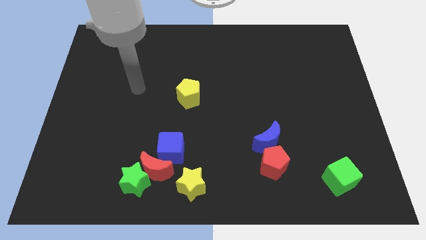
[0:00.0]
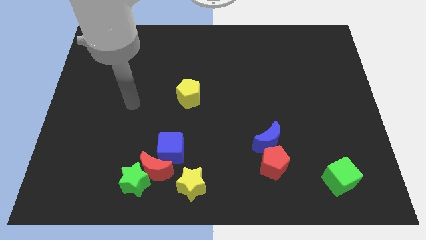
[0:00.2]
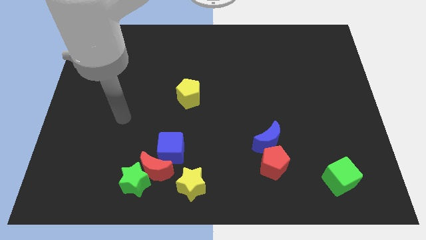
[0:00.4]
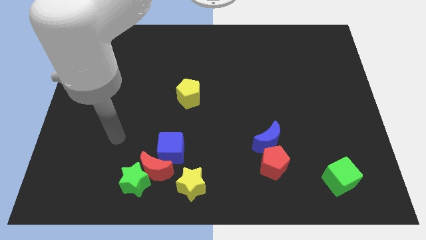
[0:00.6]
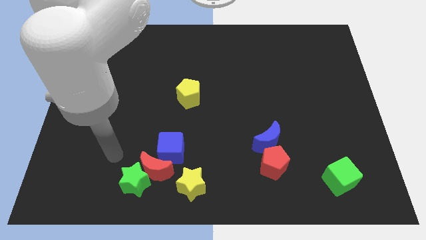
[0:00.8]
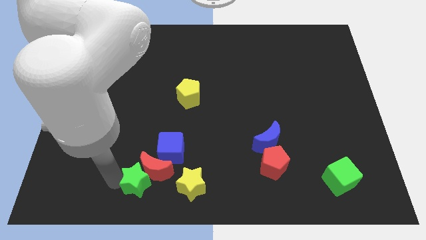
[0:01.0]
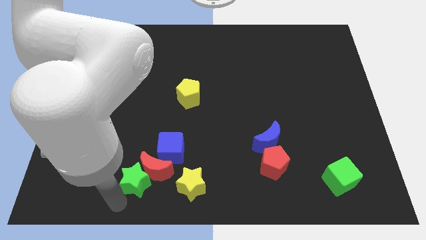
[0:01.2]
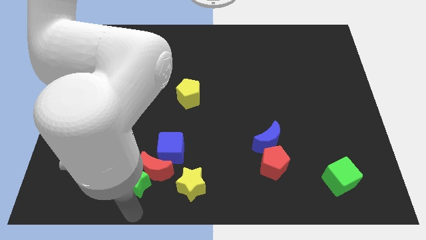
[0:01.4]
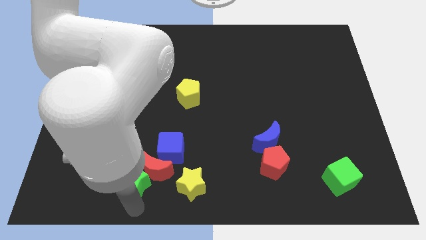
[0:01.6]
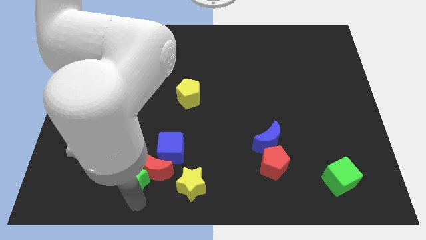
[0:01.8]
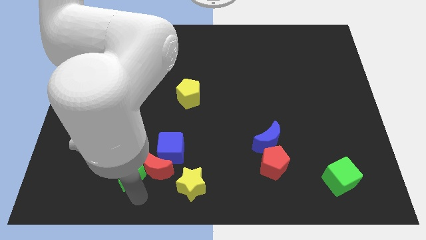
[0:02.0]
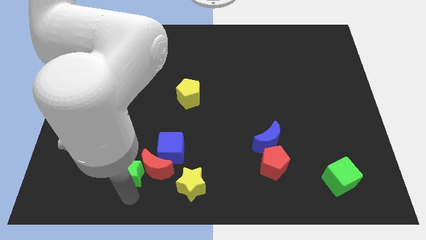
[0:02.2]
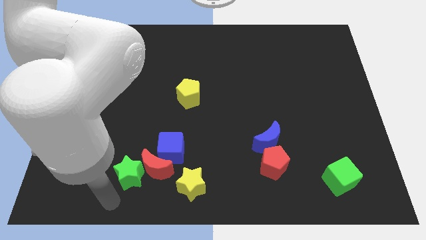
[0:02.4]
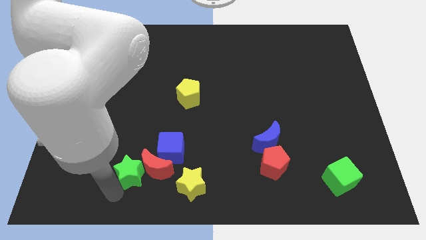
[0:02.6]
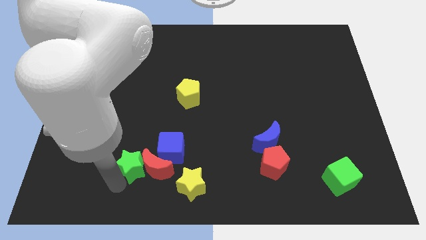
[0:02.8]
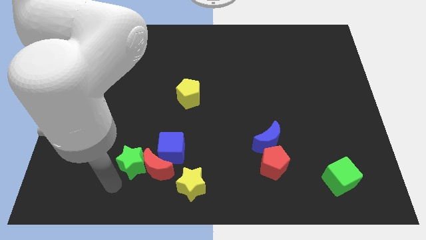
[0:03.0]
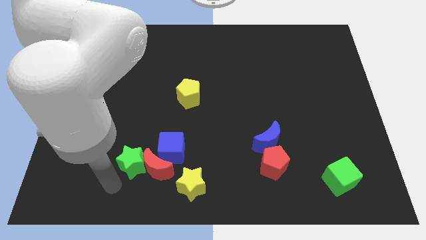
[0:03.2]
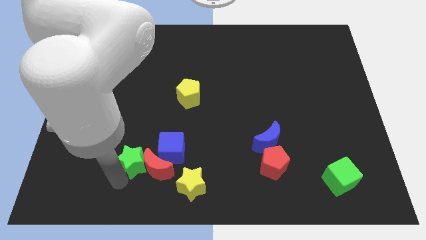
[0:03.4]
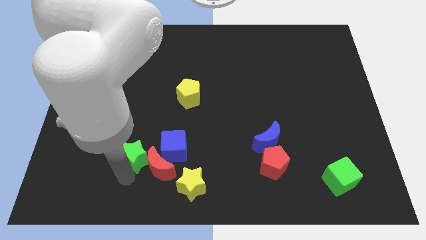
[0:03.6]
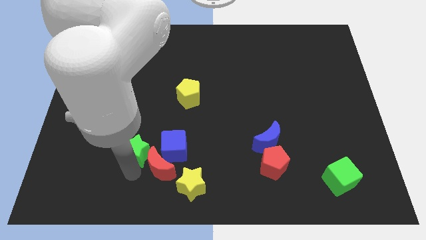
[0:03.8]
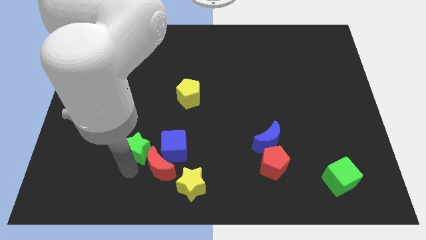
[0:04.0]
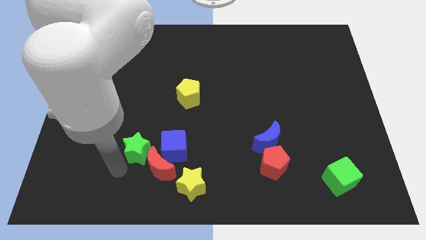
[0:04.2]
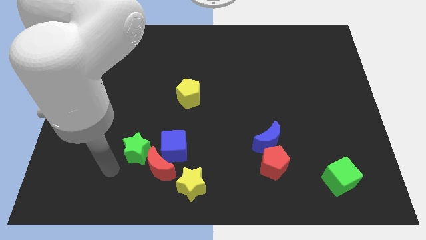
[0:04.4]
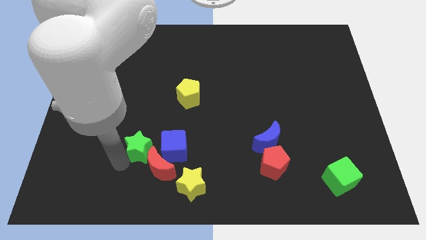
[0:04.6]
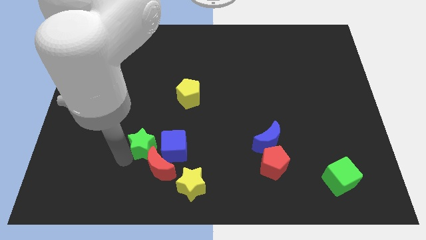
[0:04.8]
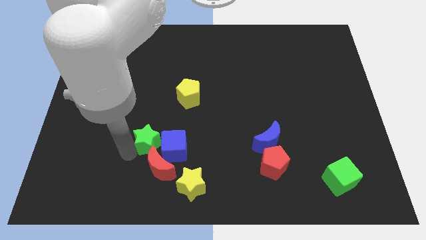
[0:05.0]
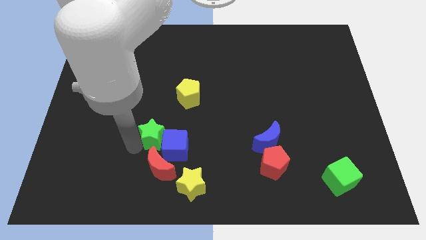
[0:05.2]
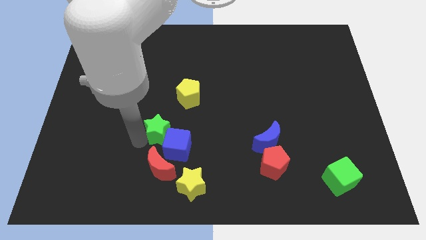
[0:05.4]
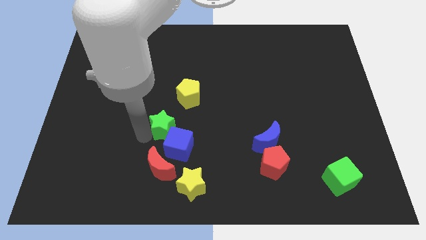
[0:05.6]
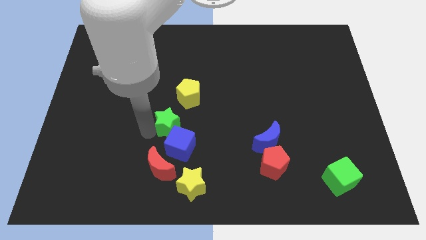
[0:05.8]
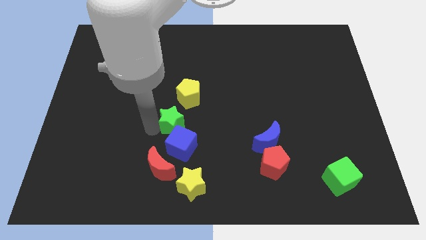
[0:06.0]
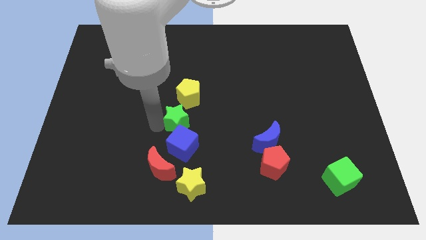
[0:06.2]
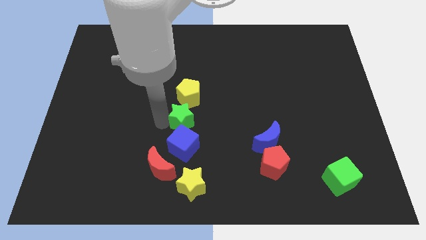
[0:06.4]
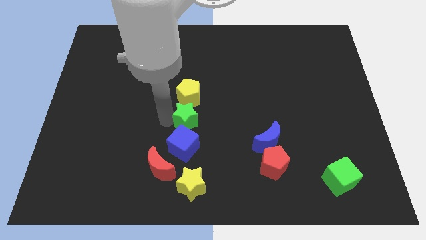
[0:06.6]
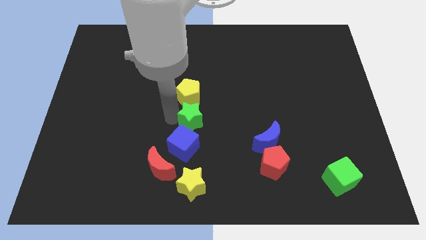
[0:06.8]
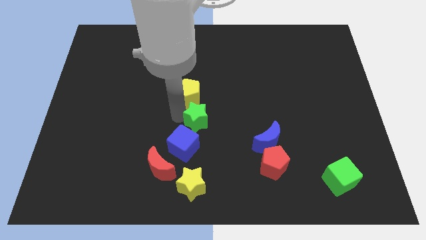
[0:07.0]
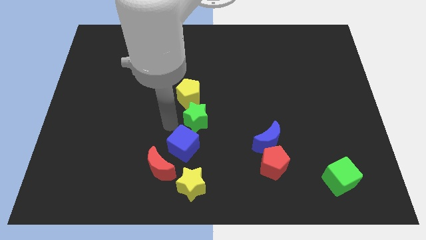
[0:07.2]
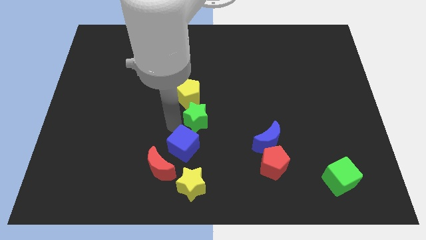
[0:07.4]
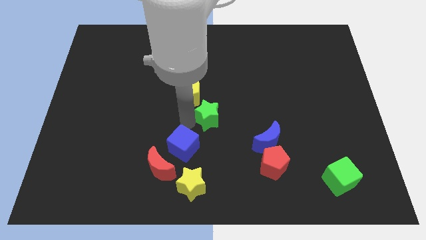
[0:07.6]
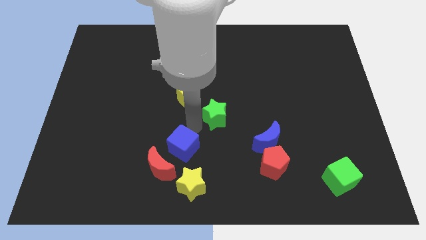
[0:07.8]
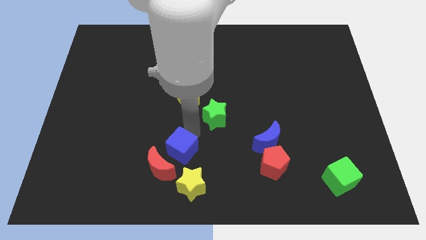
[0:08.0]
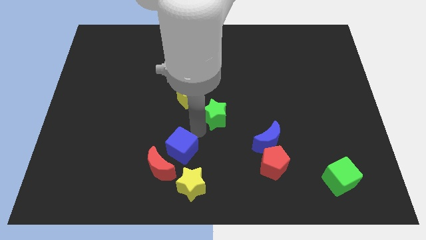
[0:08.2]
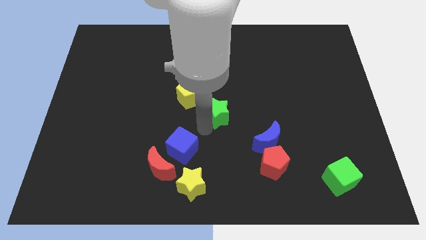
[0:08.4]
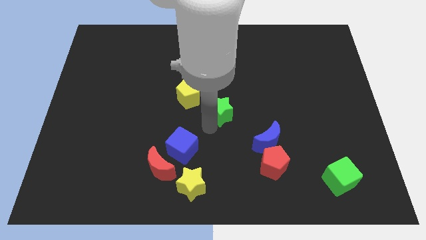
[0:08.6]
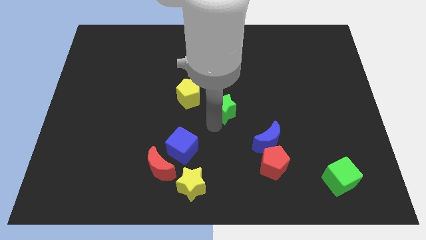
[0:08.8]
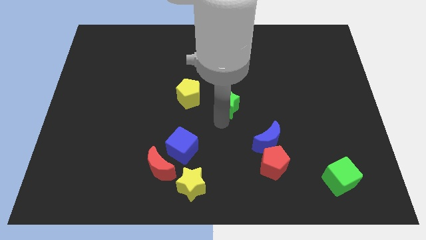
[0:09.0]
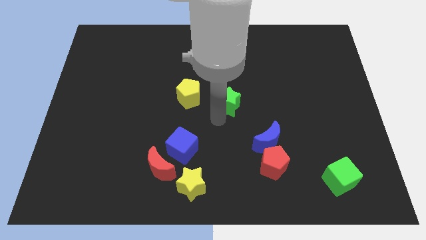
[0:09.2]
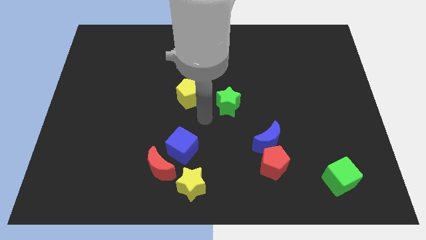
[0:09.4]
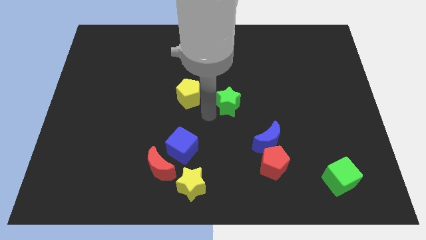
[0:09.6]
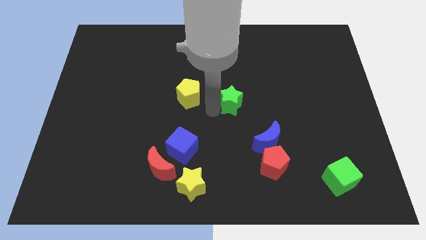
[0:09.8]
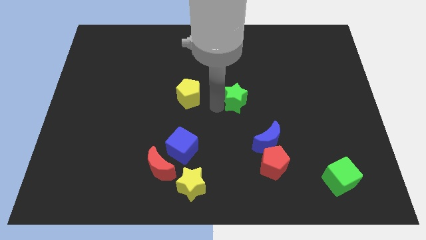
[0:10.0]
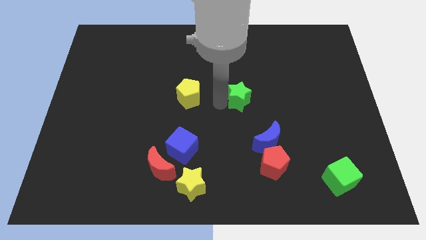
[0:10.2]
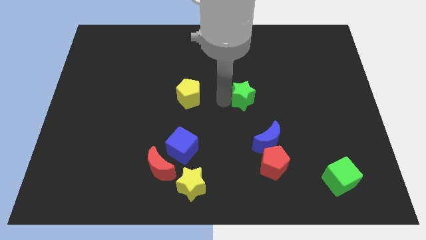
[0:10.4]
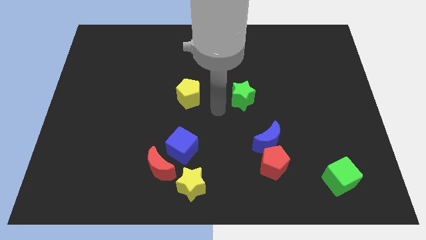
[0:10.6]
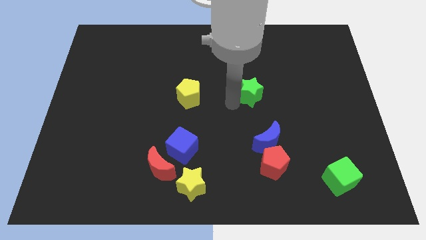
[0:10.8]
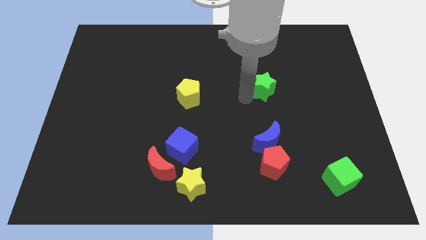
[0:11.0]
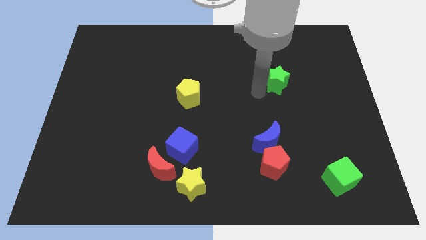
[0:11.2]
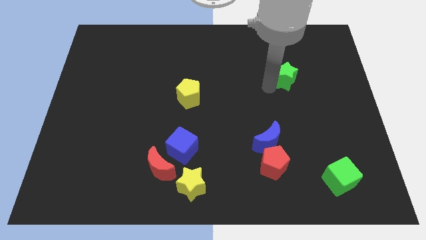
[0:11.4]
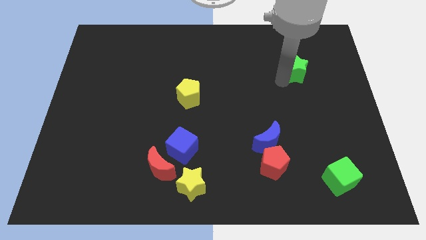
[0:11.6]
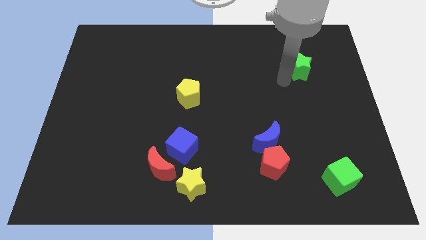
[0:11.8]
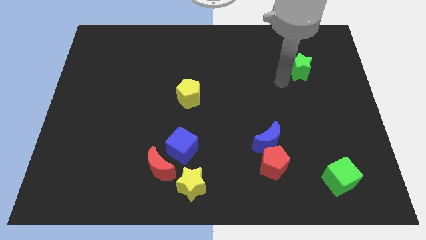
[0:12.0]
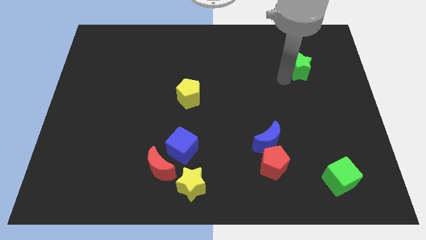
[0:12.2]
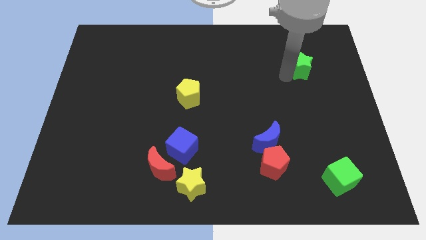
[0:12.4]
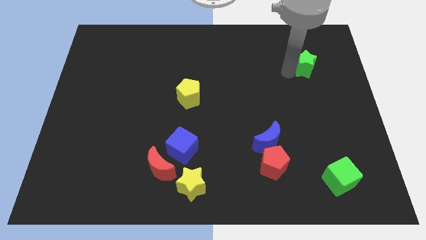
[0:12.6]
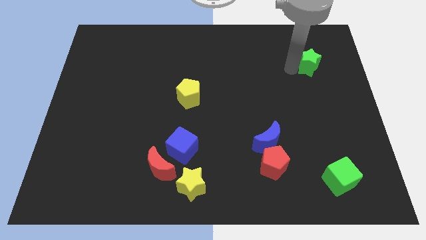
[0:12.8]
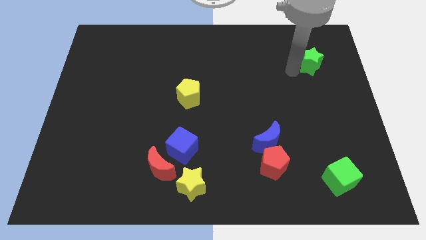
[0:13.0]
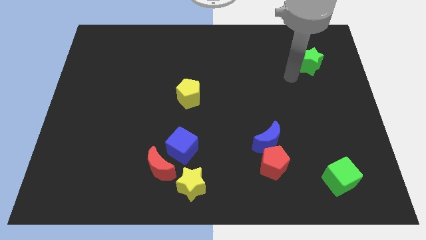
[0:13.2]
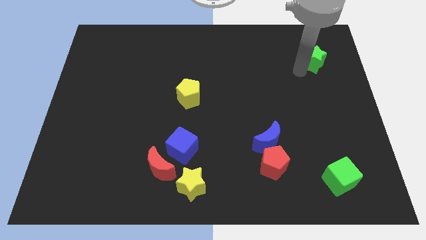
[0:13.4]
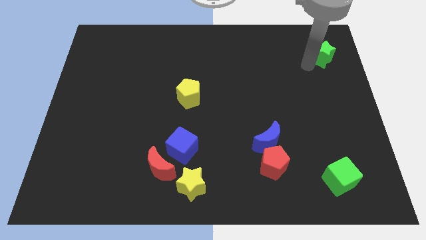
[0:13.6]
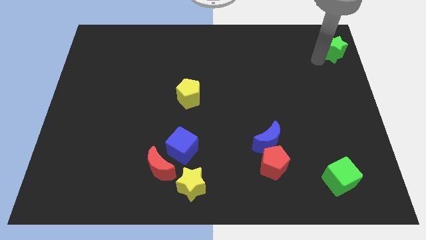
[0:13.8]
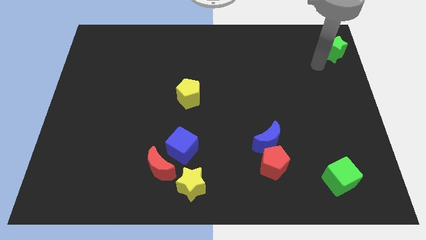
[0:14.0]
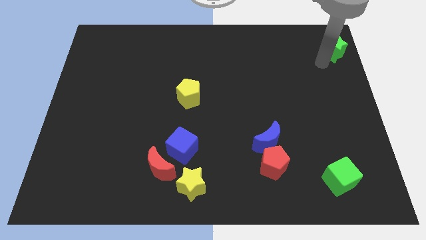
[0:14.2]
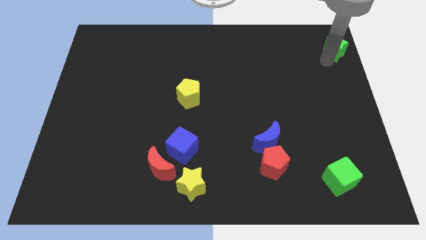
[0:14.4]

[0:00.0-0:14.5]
push the green star to the top right
